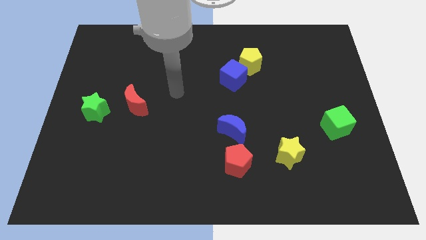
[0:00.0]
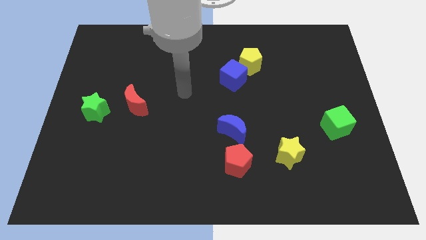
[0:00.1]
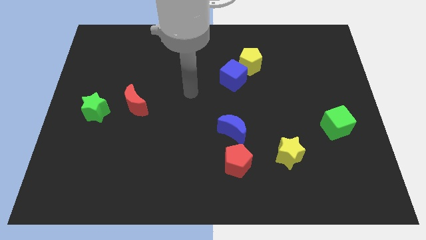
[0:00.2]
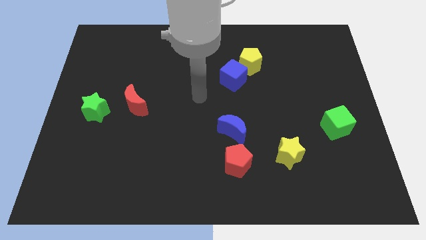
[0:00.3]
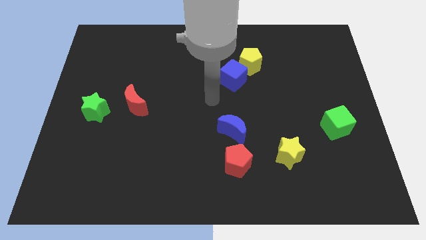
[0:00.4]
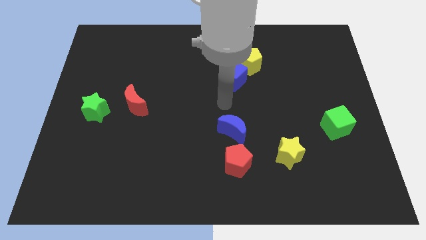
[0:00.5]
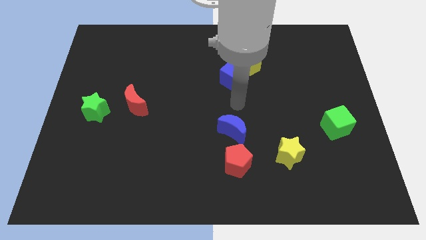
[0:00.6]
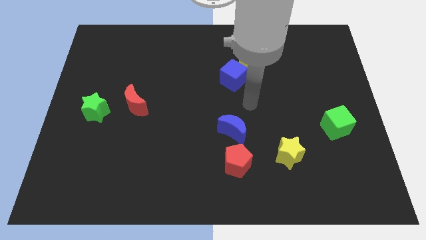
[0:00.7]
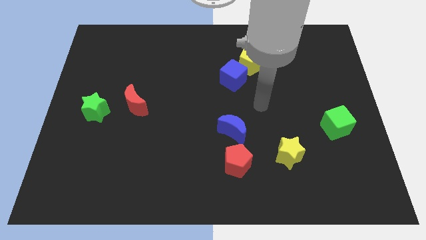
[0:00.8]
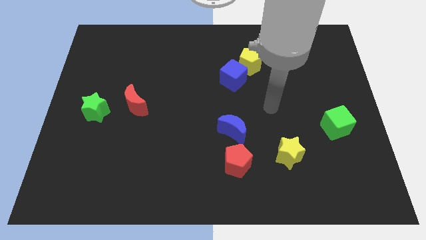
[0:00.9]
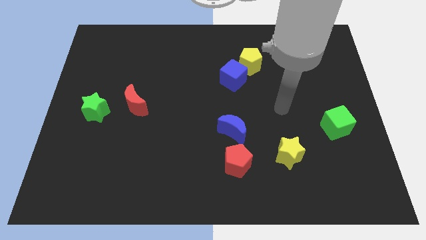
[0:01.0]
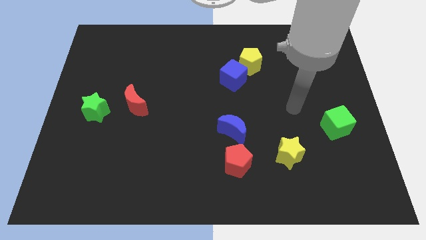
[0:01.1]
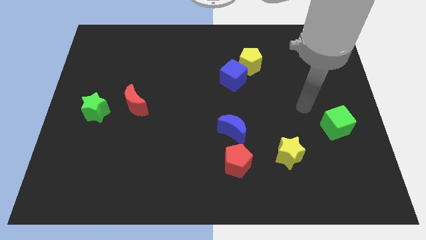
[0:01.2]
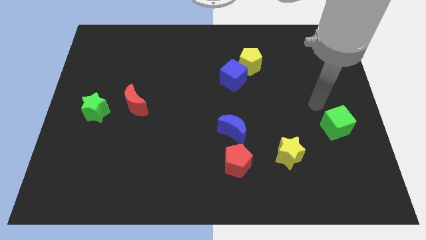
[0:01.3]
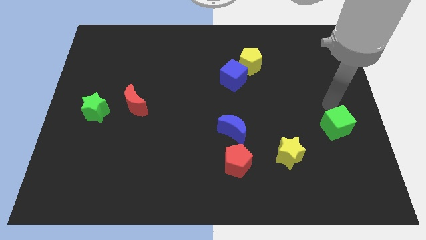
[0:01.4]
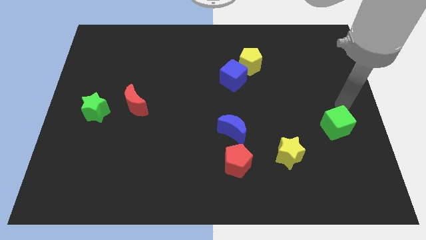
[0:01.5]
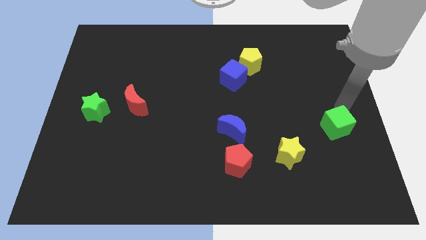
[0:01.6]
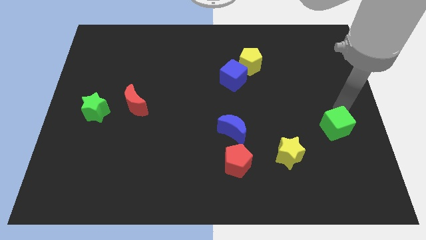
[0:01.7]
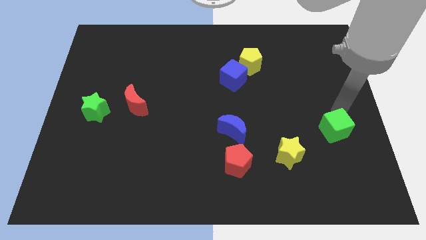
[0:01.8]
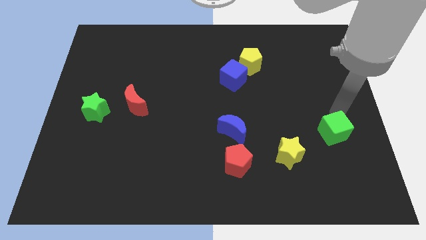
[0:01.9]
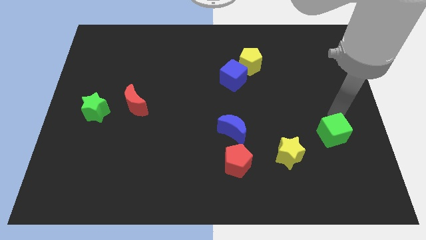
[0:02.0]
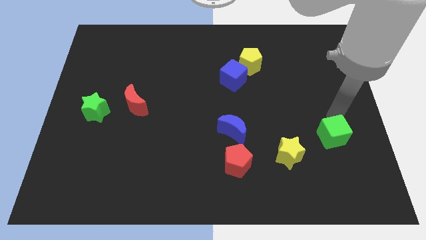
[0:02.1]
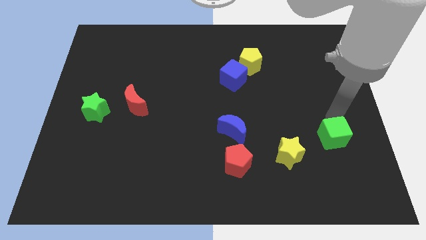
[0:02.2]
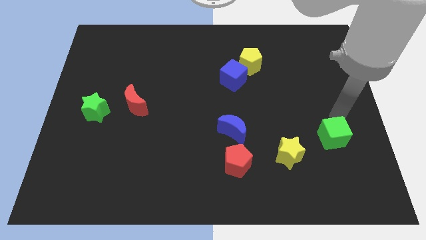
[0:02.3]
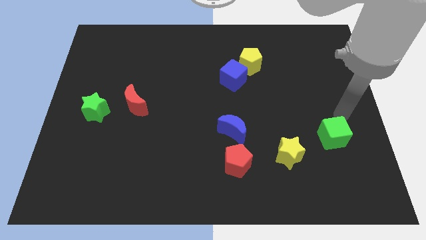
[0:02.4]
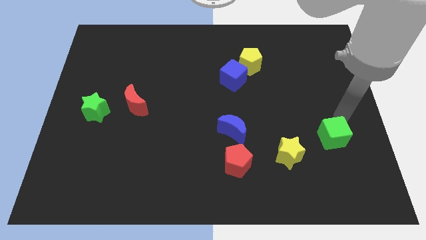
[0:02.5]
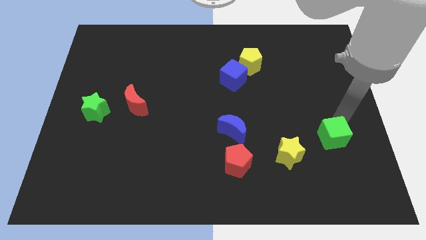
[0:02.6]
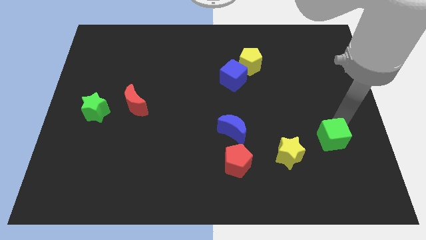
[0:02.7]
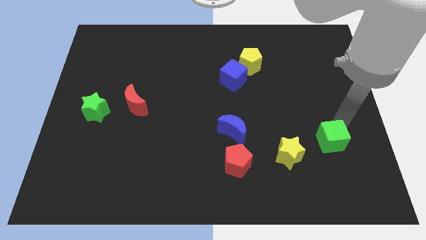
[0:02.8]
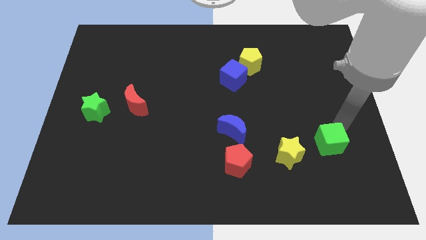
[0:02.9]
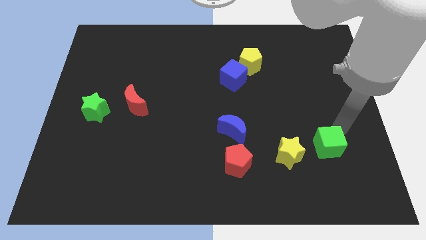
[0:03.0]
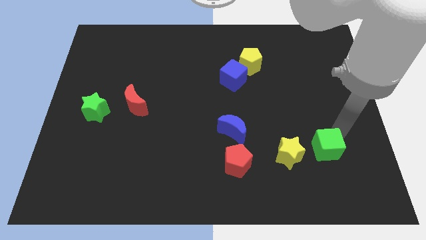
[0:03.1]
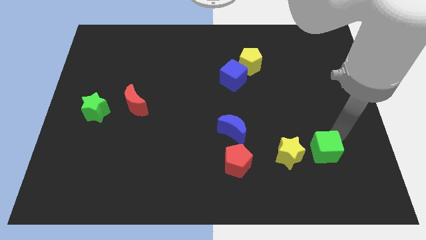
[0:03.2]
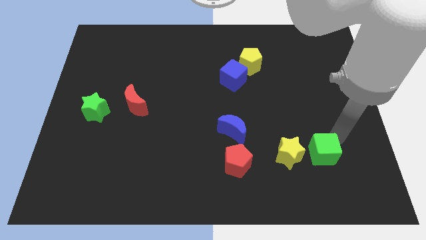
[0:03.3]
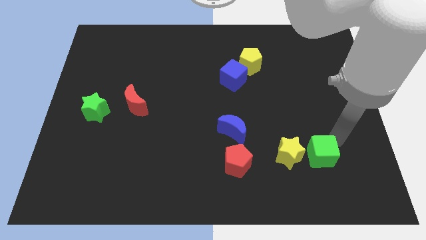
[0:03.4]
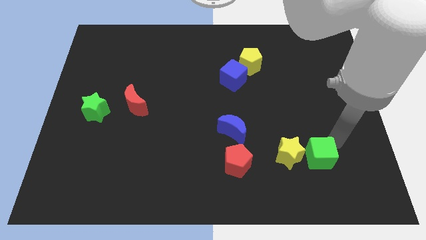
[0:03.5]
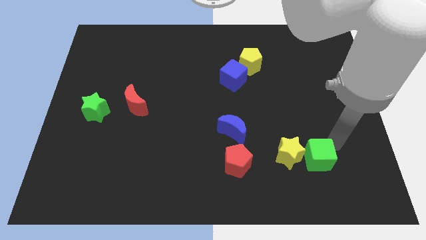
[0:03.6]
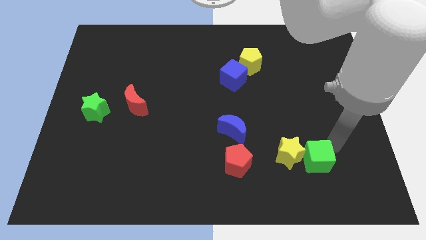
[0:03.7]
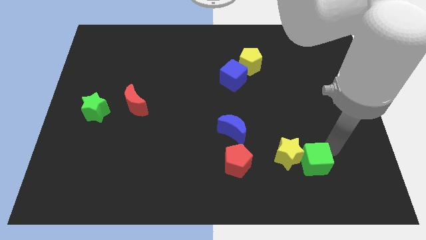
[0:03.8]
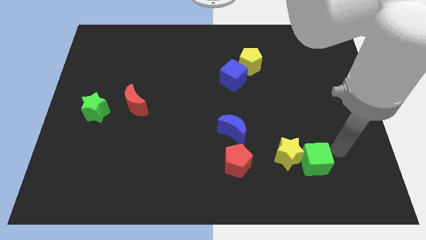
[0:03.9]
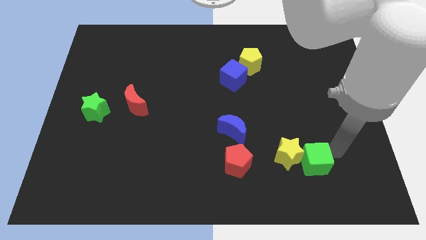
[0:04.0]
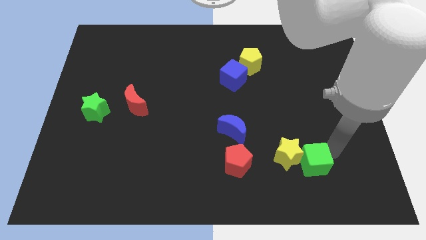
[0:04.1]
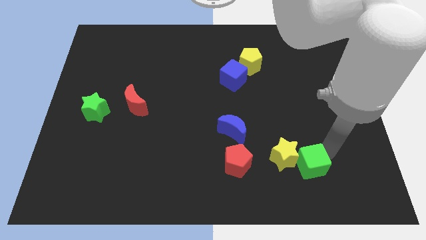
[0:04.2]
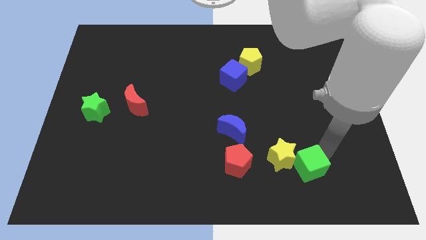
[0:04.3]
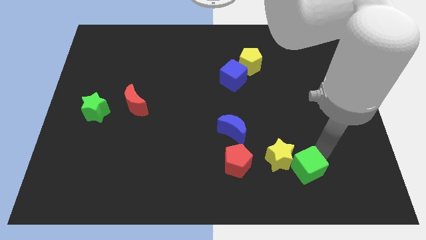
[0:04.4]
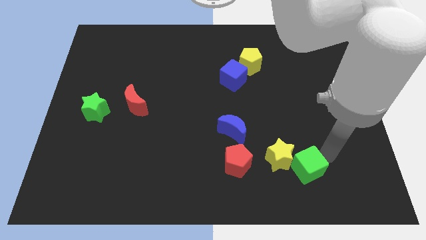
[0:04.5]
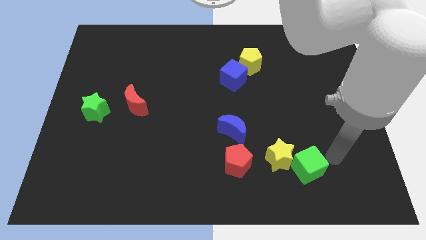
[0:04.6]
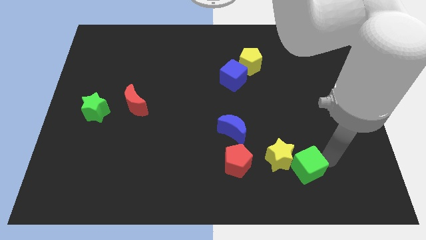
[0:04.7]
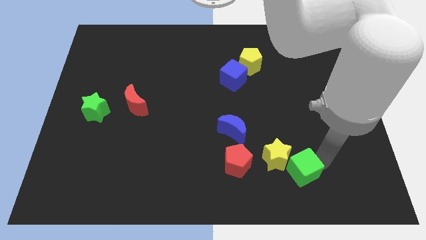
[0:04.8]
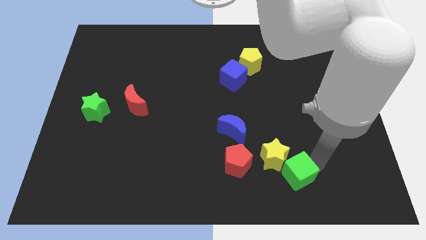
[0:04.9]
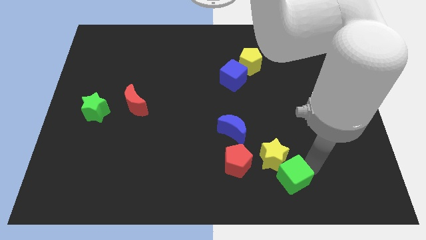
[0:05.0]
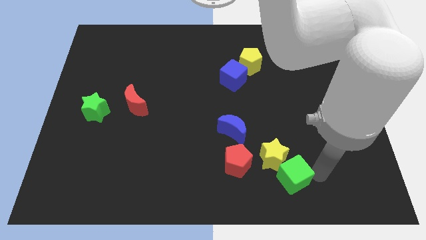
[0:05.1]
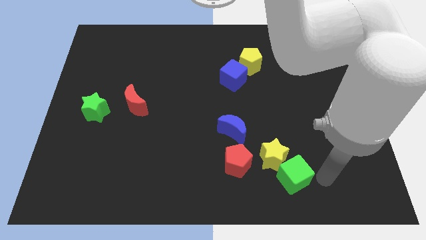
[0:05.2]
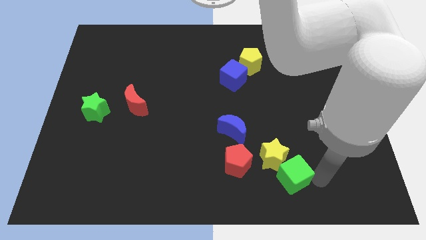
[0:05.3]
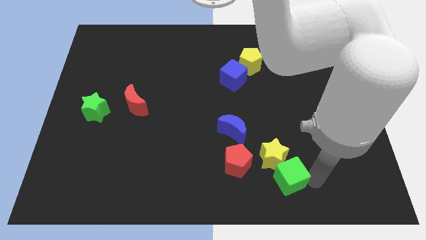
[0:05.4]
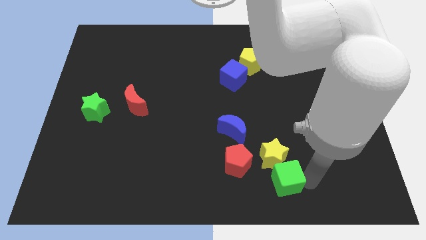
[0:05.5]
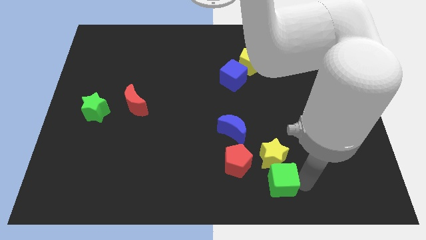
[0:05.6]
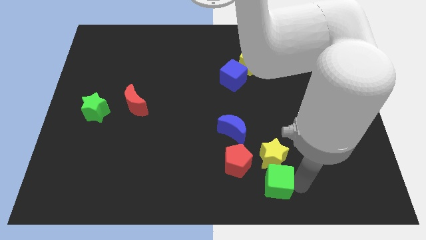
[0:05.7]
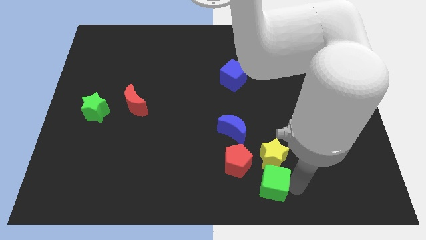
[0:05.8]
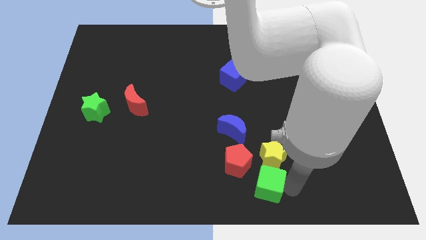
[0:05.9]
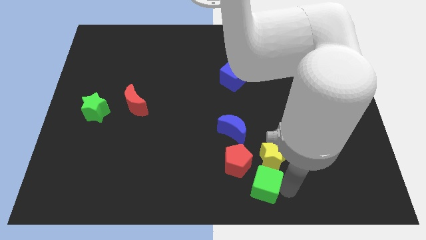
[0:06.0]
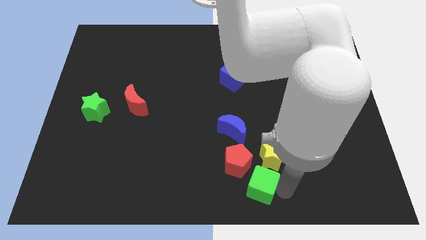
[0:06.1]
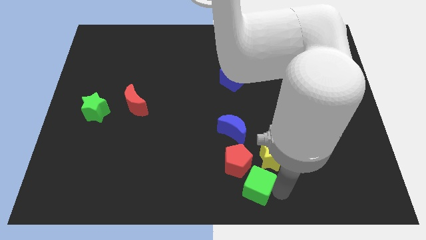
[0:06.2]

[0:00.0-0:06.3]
put the green cube below the blue moon

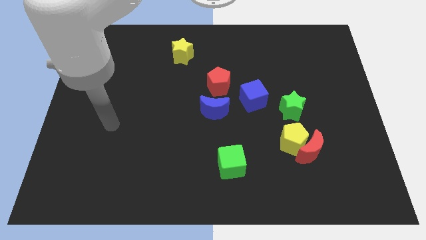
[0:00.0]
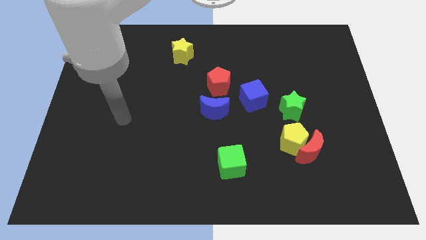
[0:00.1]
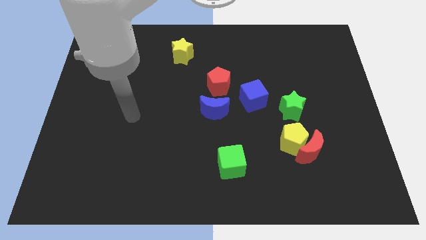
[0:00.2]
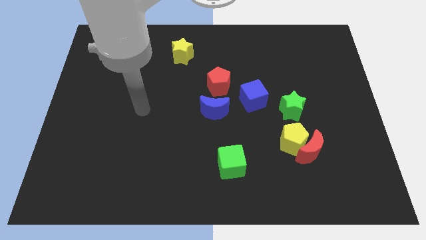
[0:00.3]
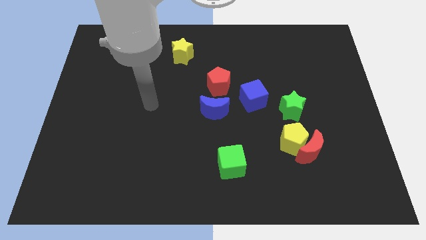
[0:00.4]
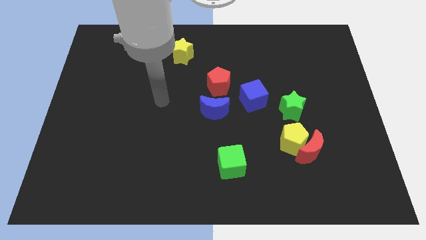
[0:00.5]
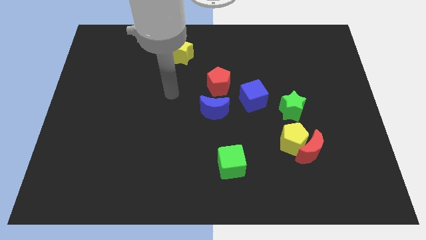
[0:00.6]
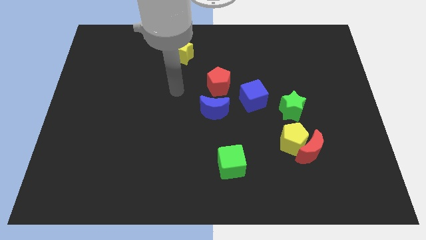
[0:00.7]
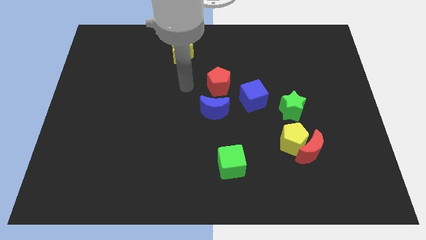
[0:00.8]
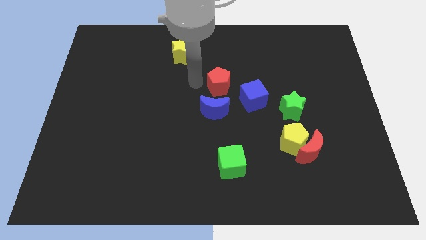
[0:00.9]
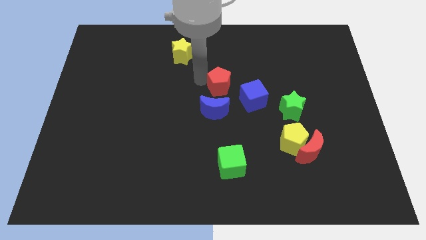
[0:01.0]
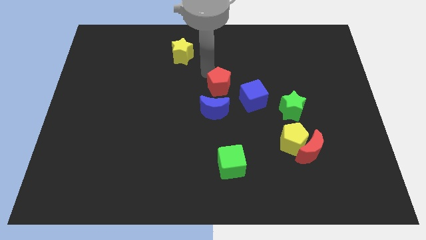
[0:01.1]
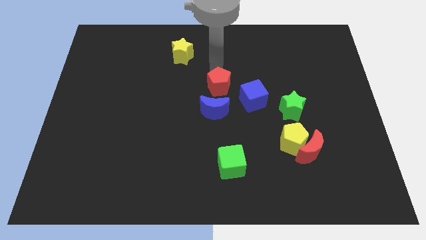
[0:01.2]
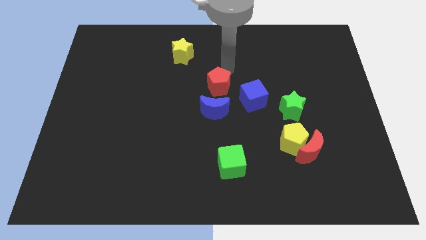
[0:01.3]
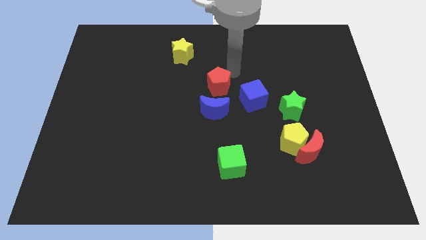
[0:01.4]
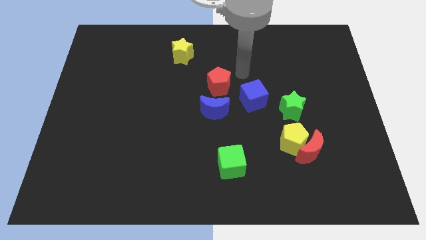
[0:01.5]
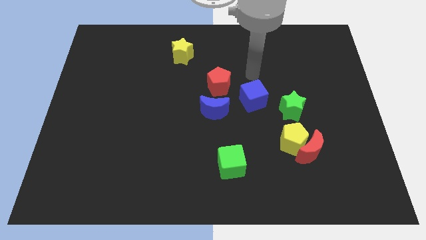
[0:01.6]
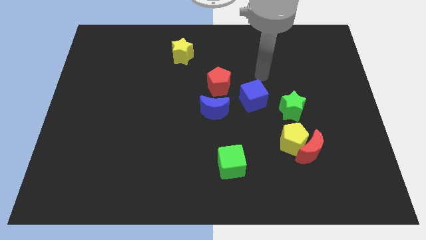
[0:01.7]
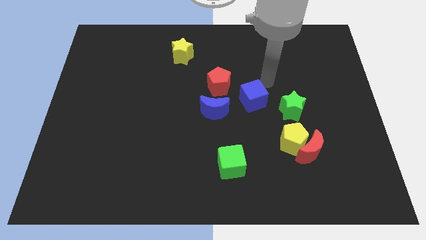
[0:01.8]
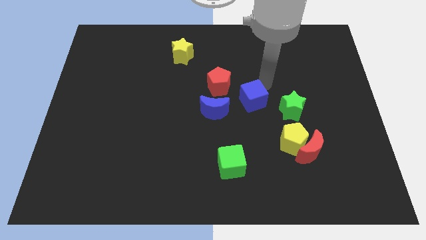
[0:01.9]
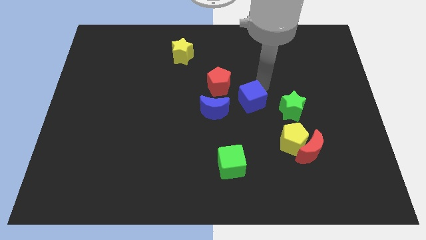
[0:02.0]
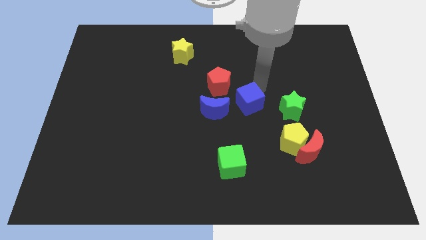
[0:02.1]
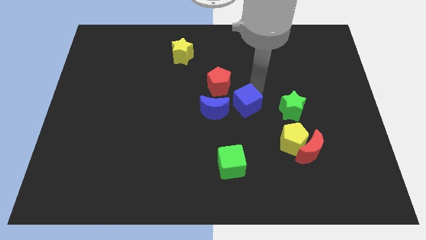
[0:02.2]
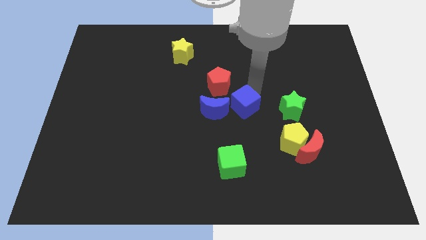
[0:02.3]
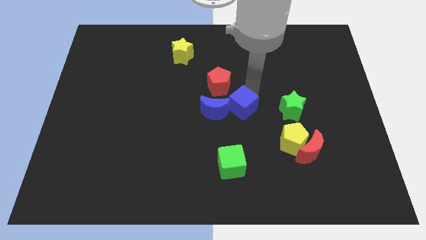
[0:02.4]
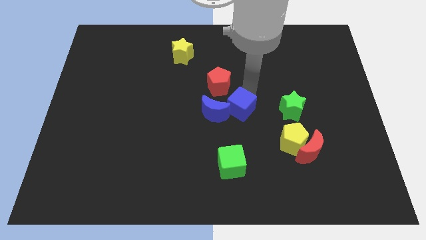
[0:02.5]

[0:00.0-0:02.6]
put the blue cube to the top of the green cube
